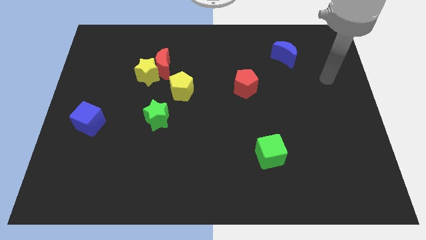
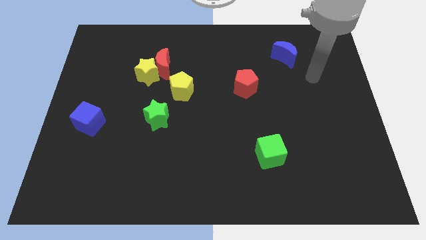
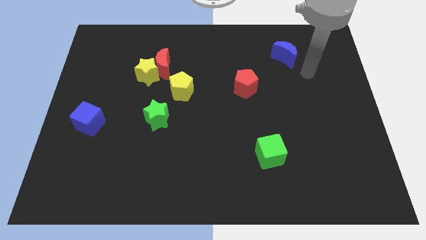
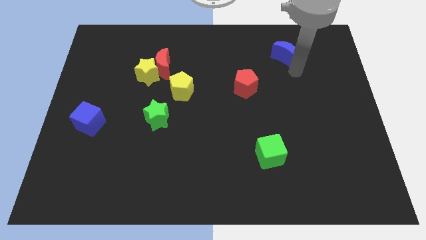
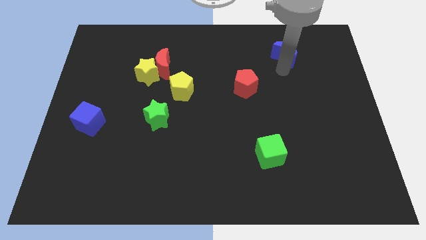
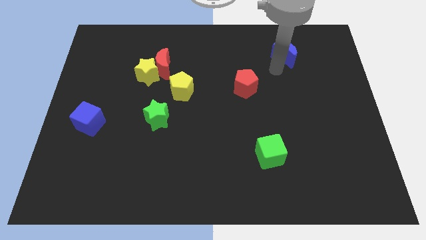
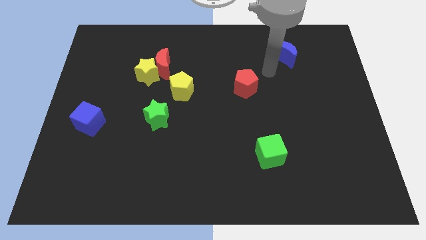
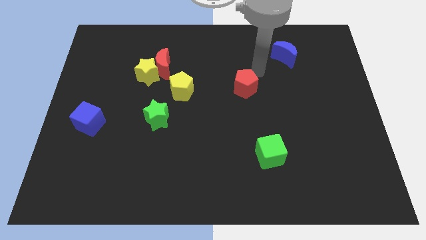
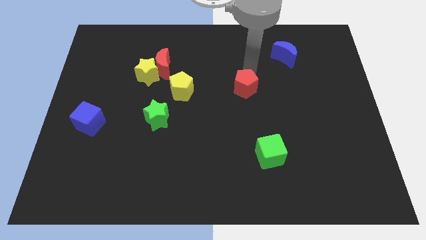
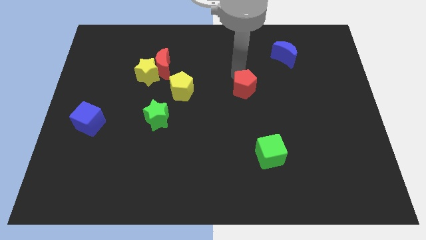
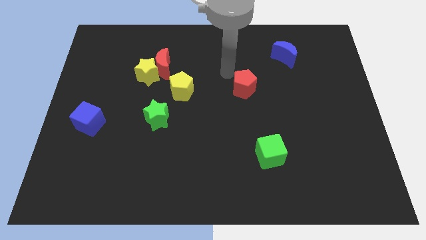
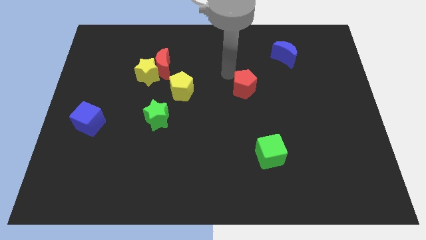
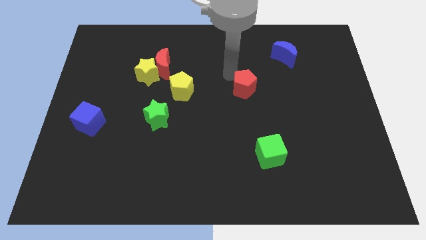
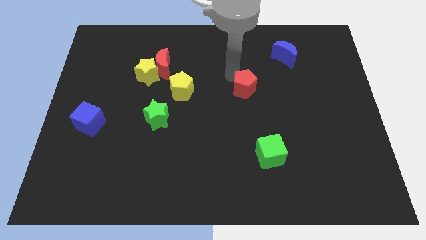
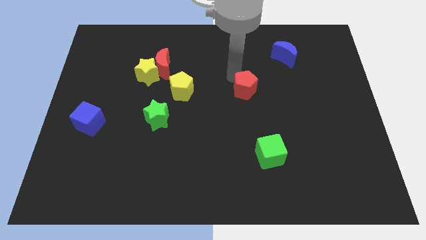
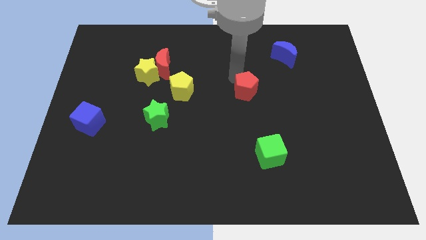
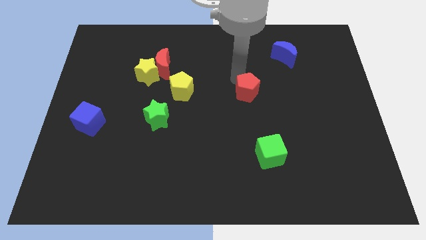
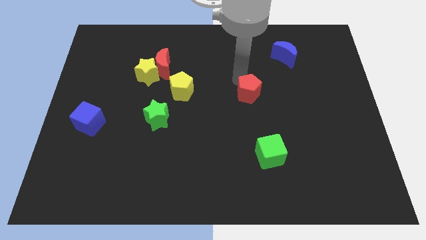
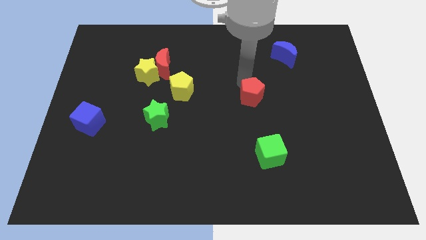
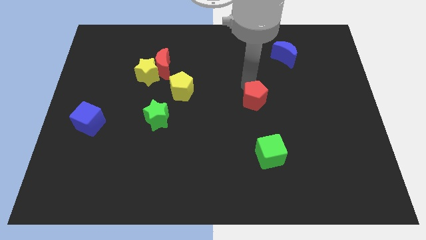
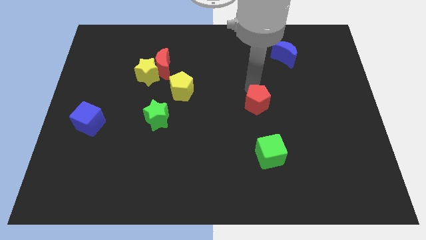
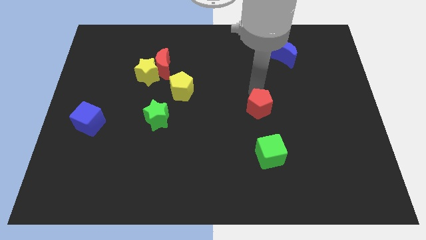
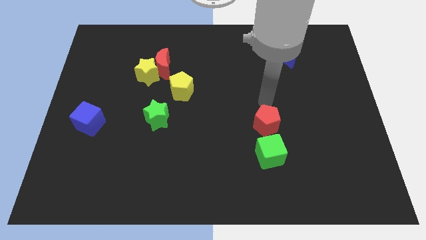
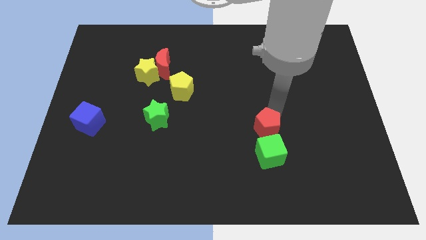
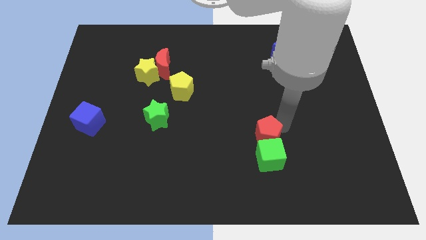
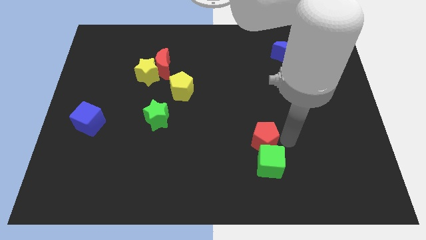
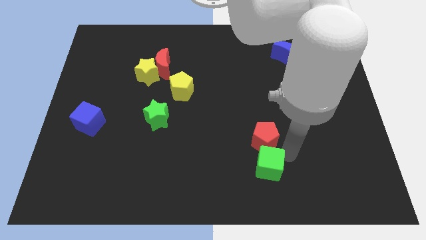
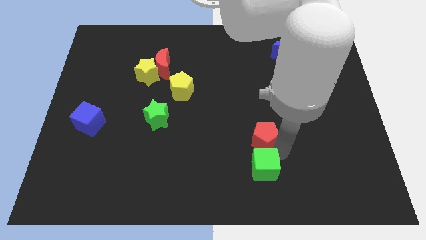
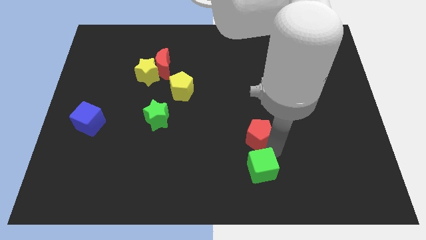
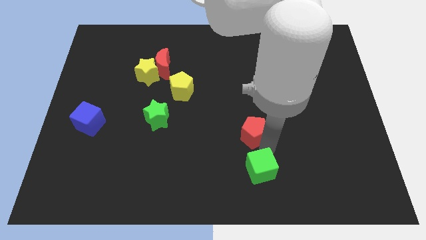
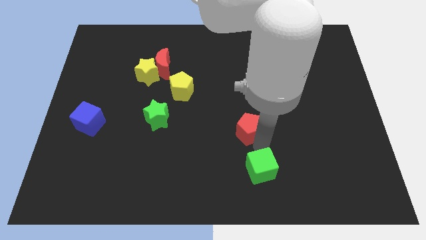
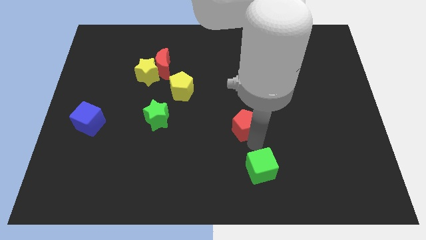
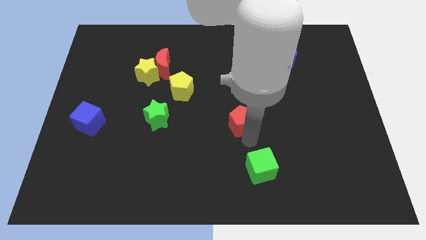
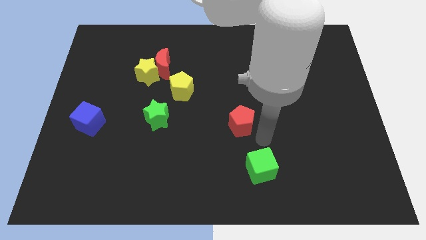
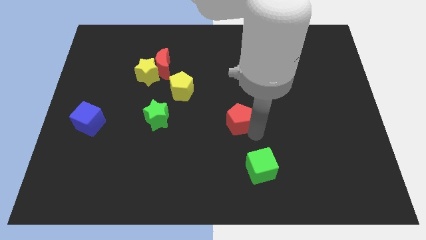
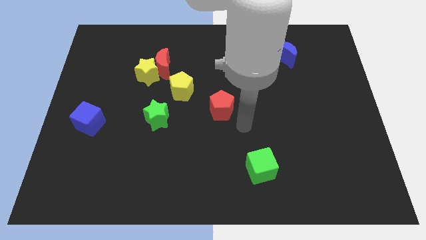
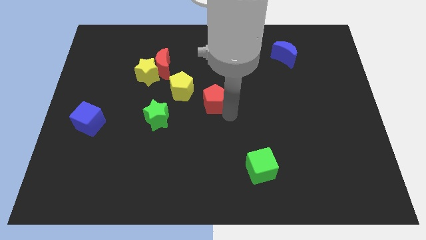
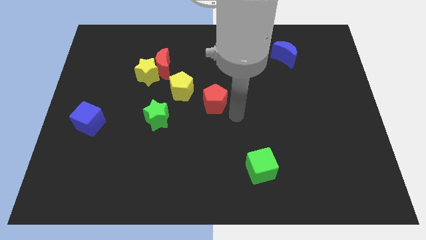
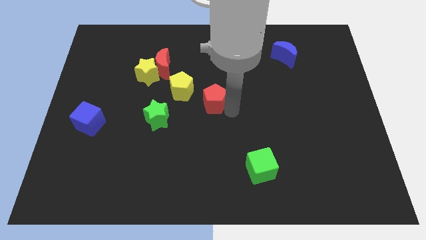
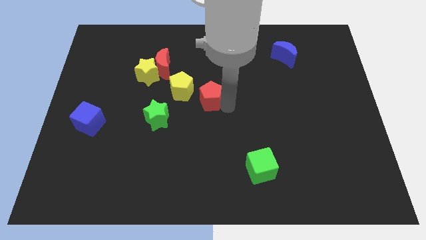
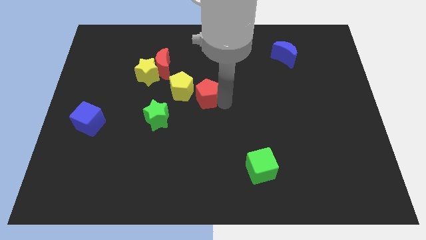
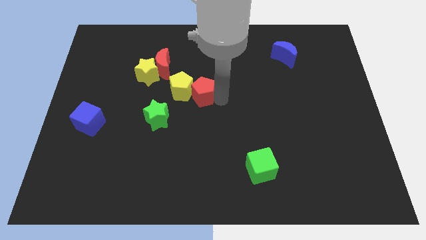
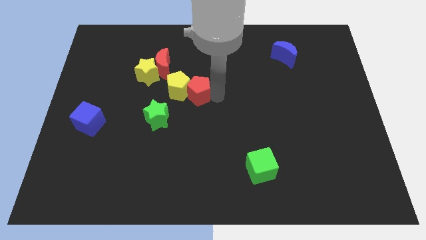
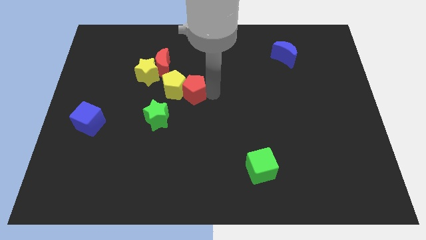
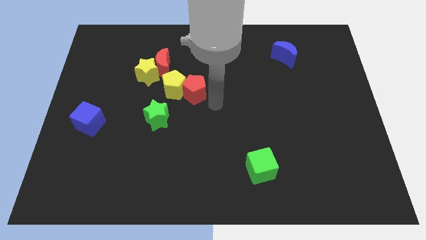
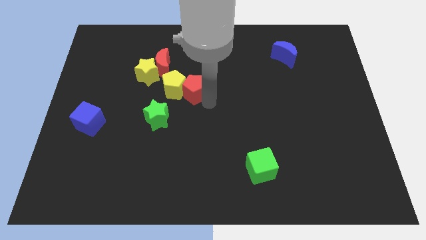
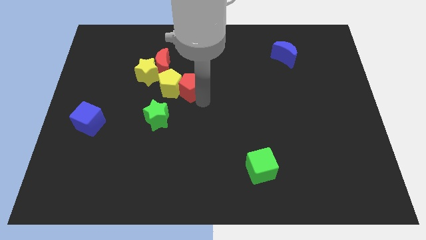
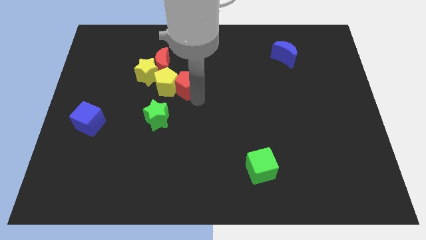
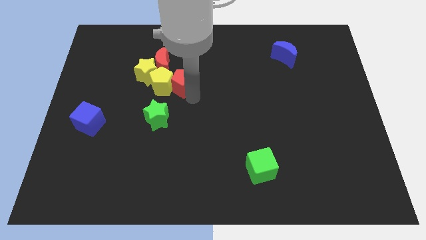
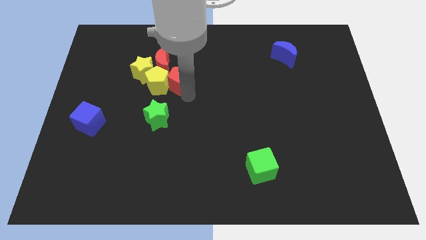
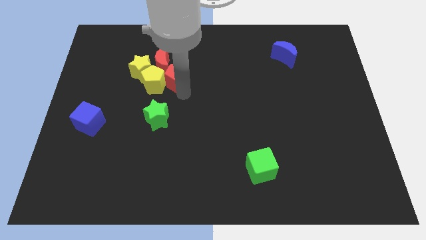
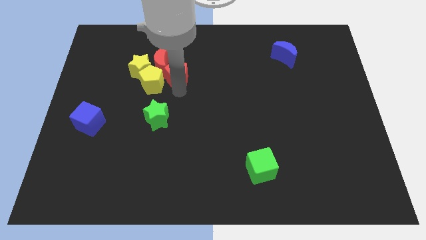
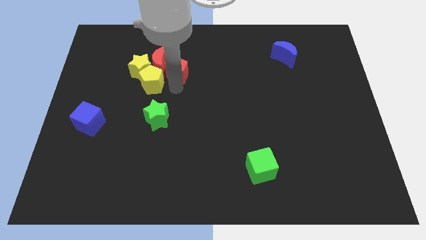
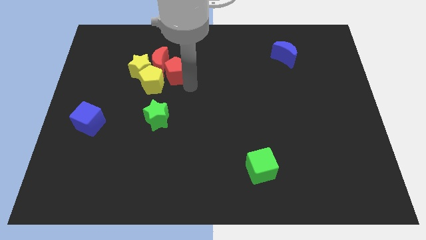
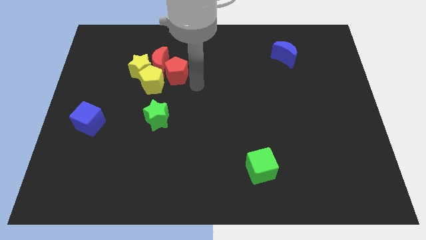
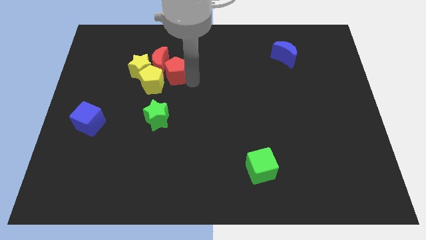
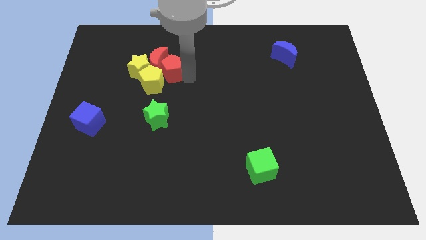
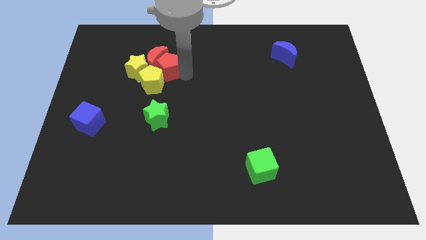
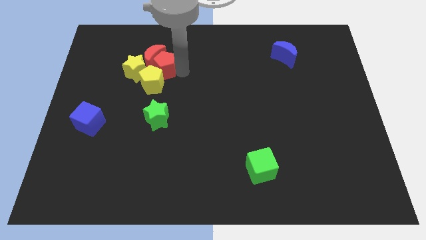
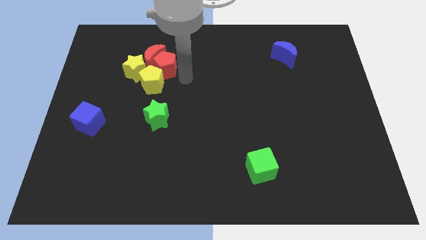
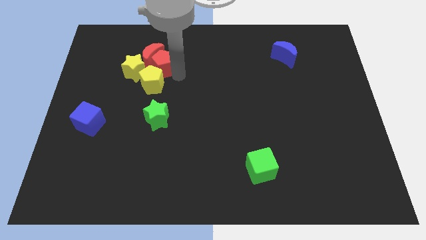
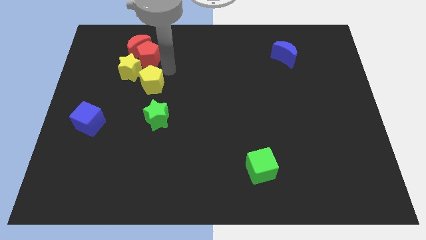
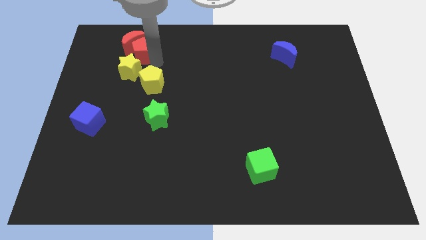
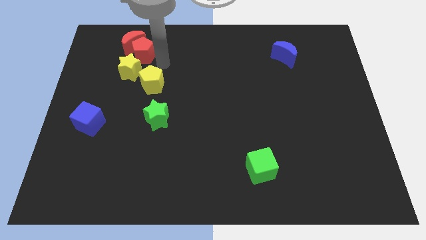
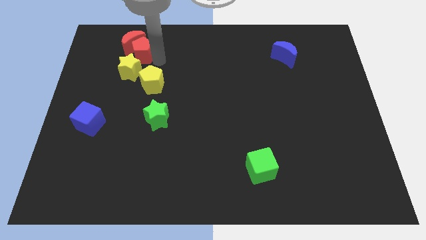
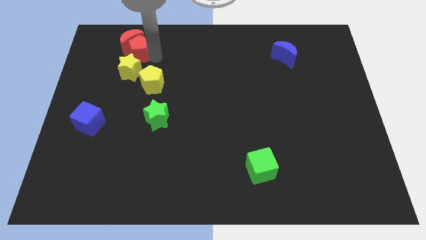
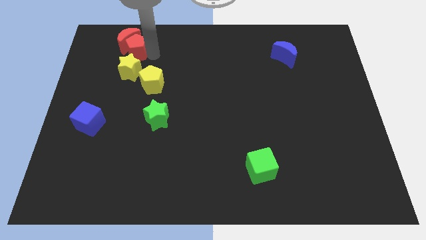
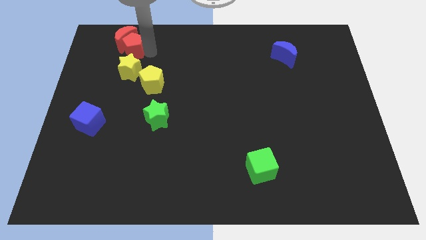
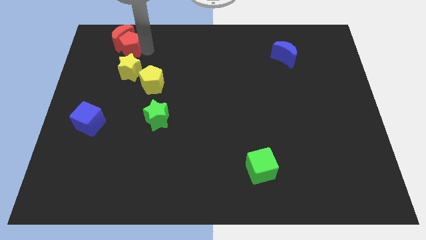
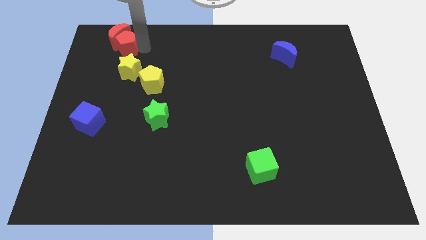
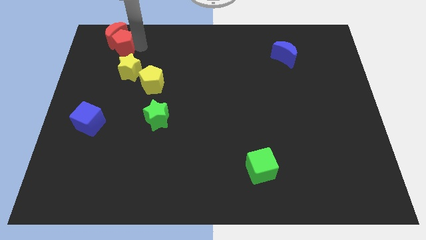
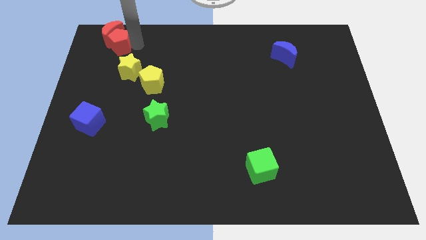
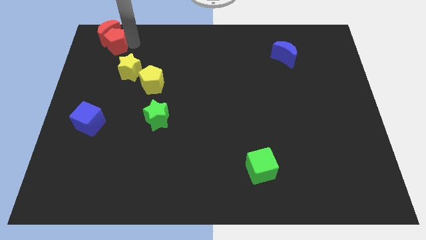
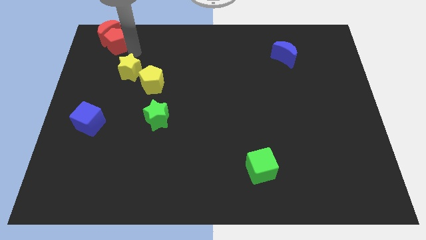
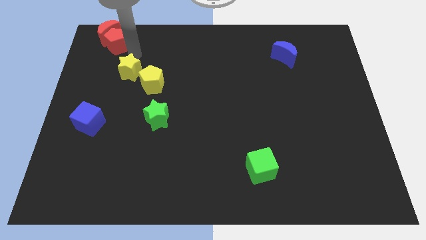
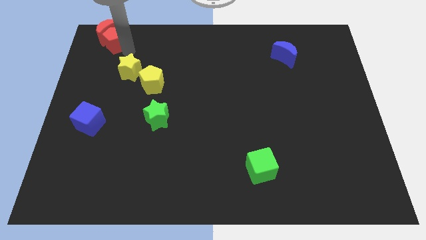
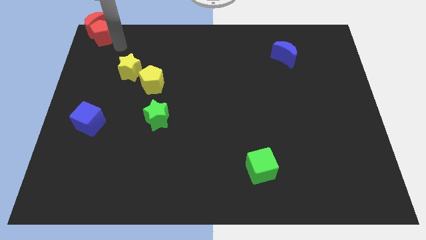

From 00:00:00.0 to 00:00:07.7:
move the red pentagon to the top left of the board
